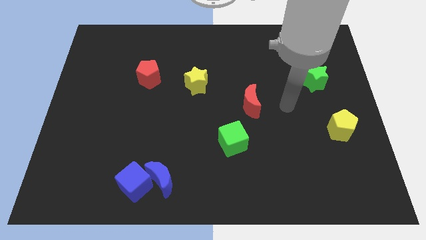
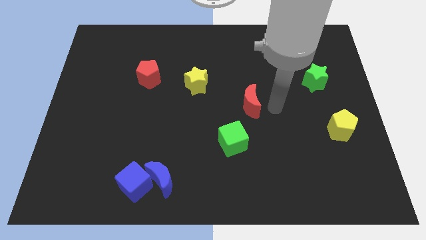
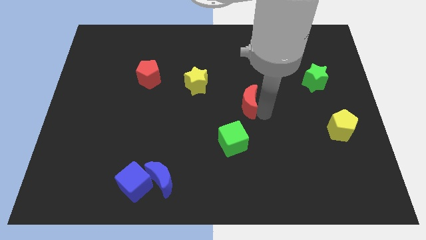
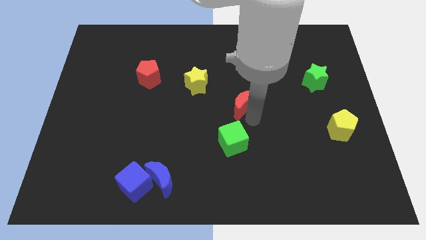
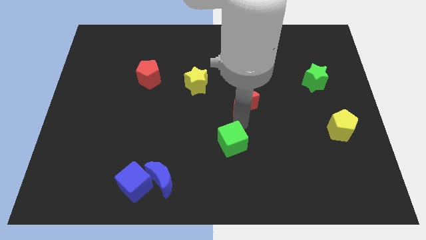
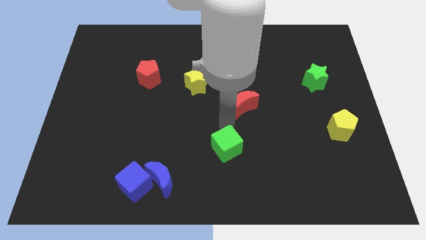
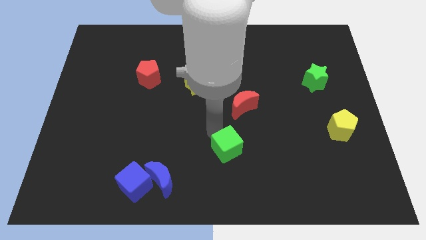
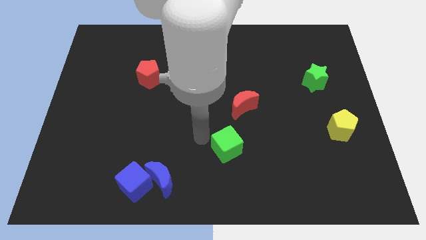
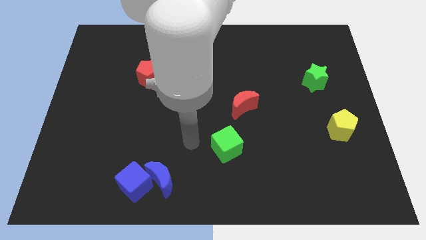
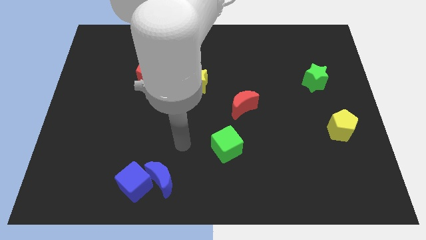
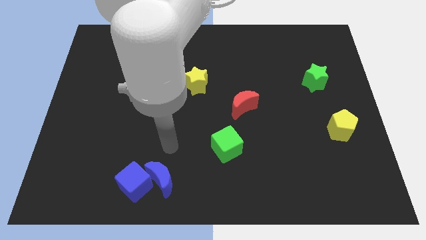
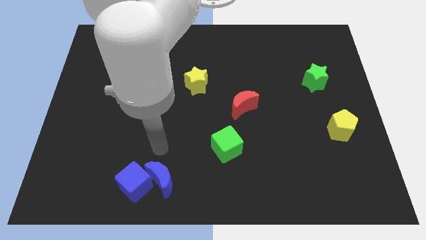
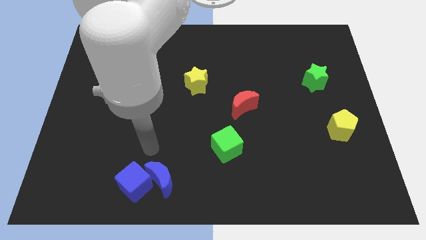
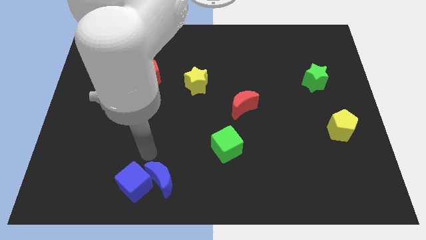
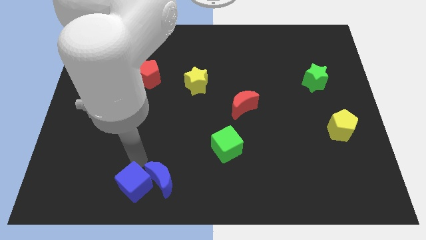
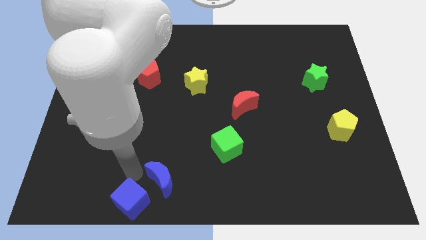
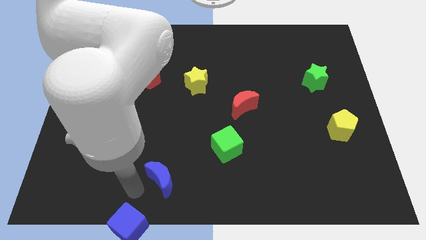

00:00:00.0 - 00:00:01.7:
move the blue moon away from the blue cube

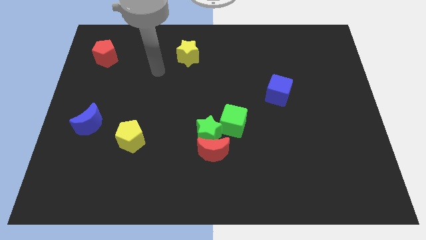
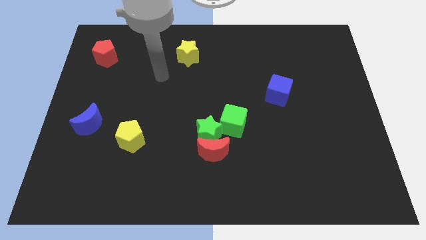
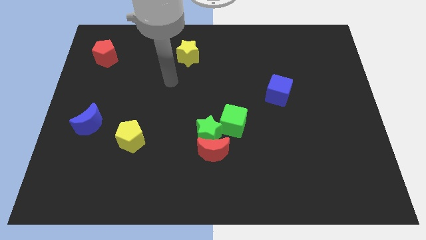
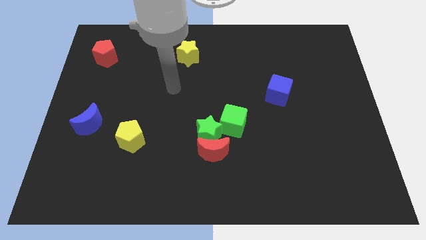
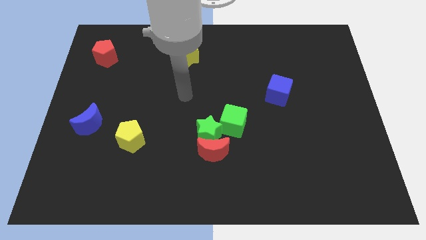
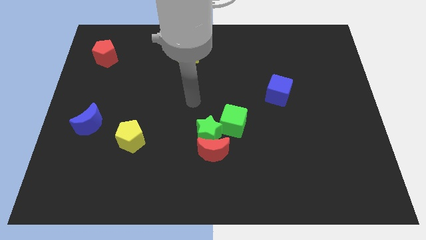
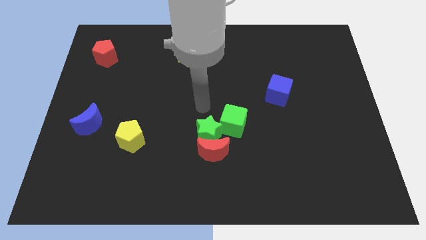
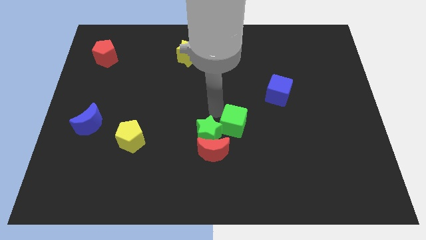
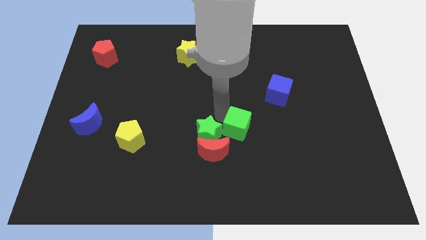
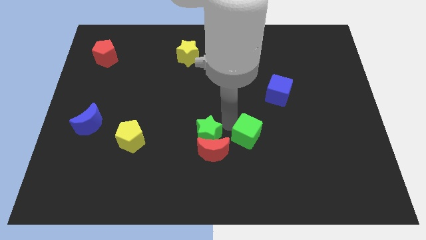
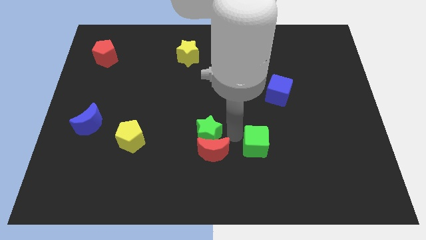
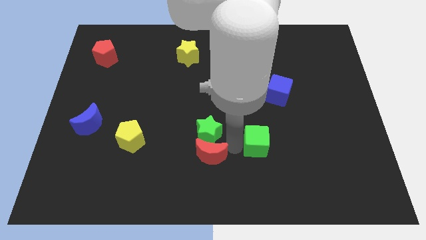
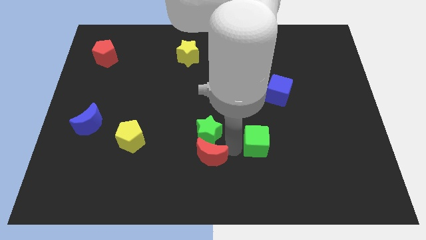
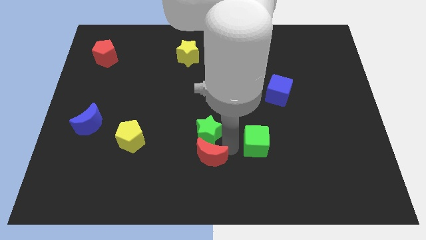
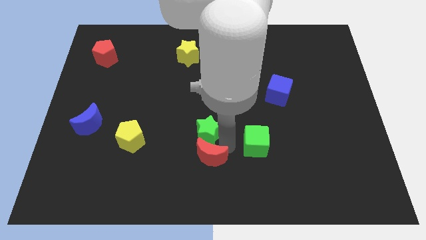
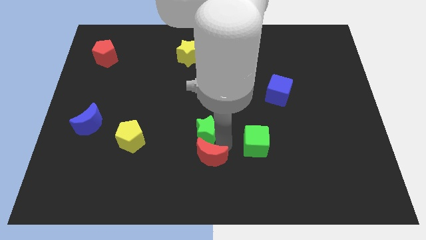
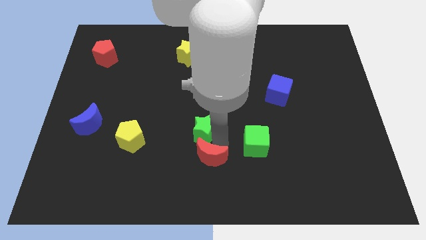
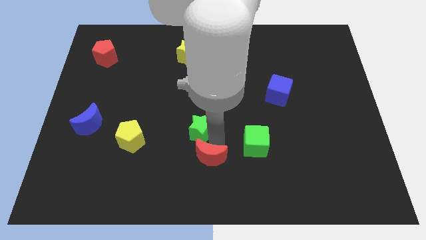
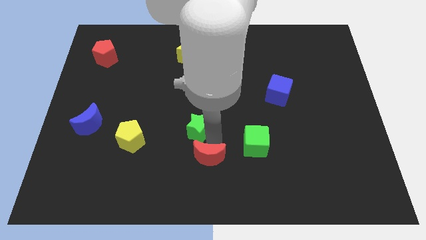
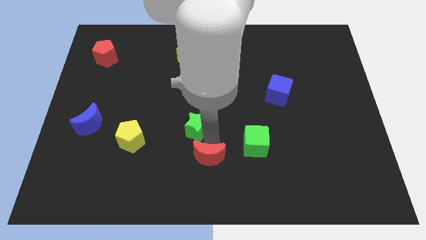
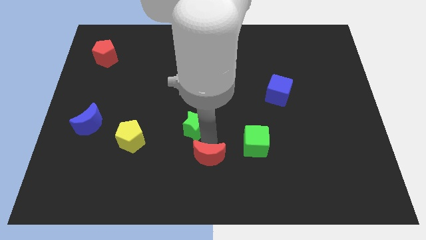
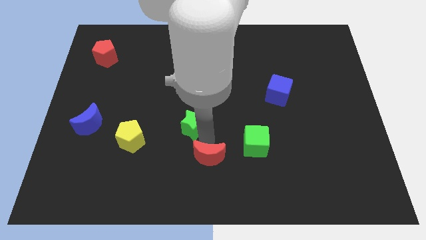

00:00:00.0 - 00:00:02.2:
separate the green star from the red moon and green cube

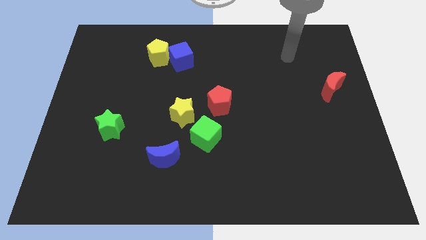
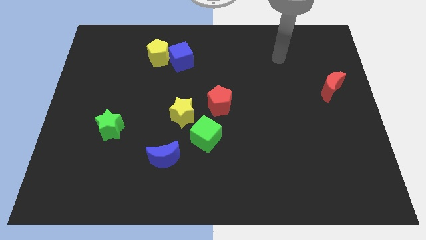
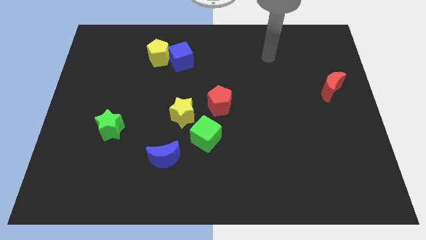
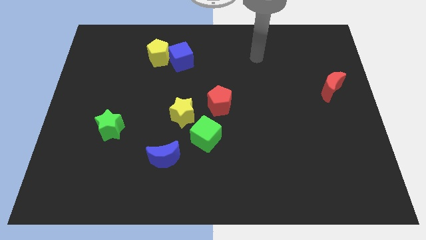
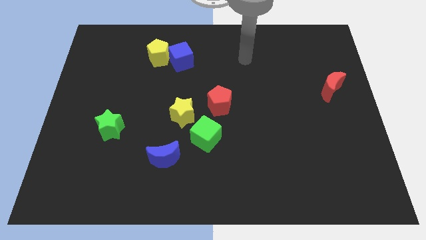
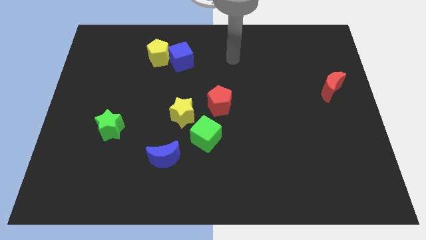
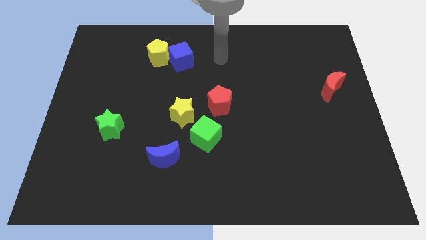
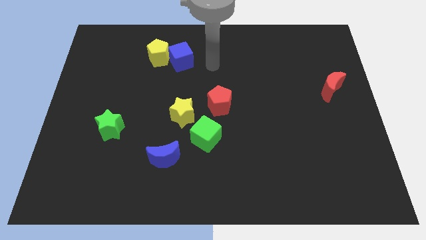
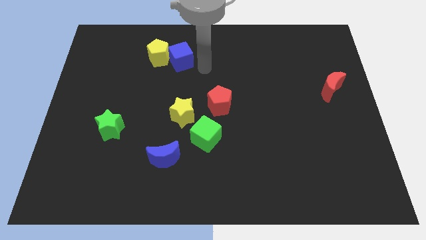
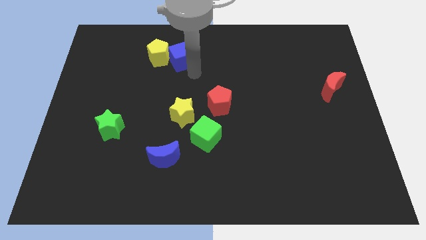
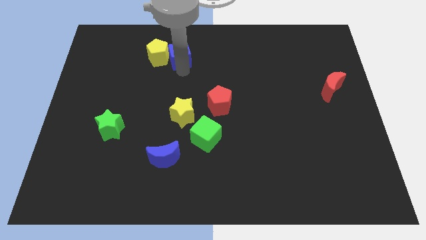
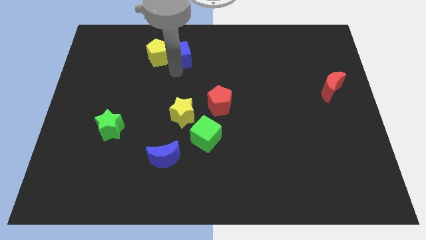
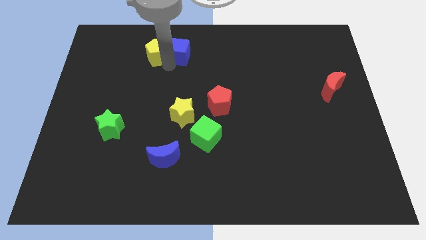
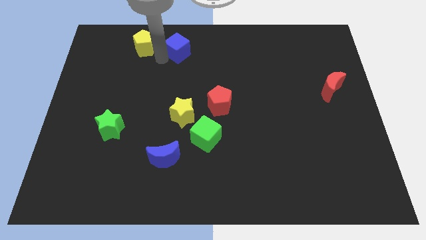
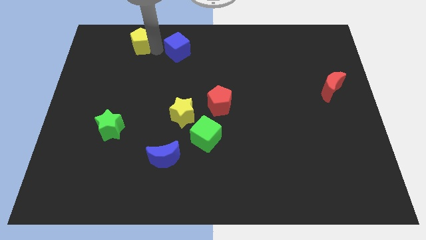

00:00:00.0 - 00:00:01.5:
separate the blue cube from the yellow pentagon

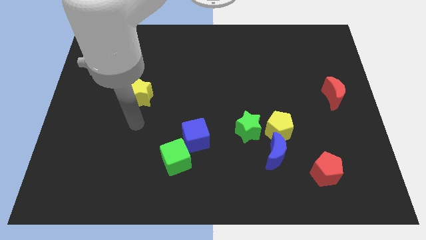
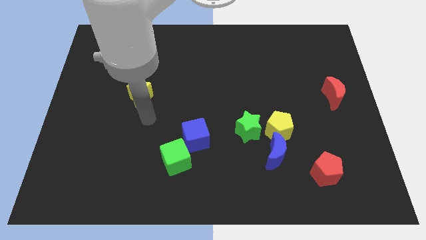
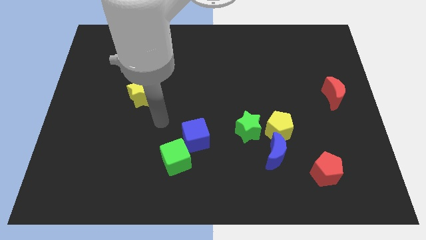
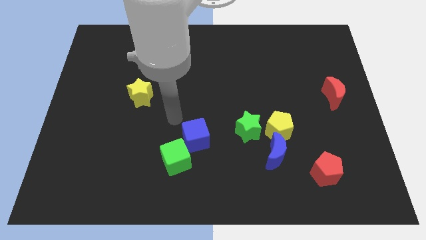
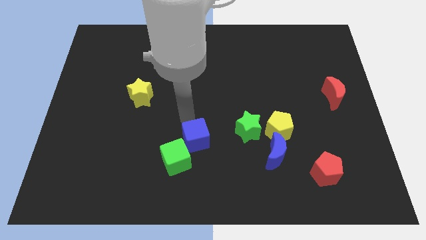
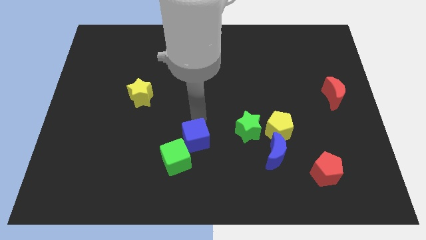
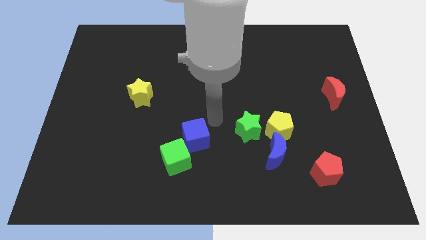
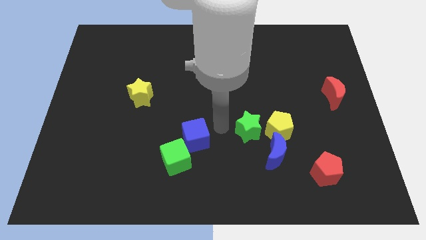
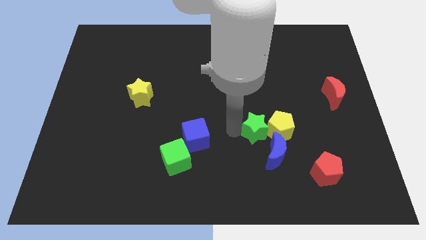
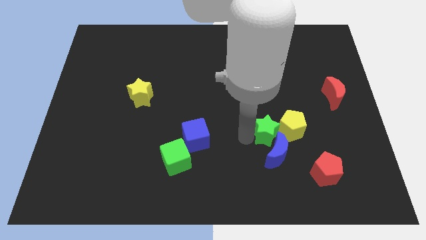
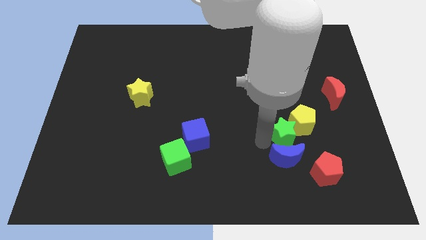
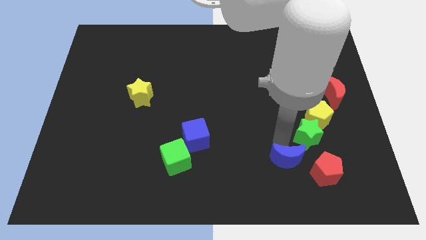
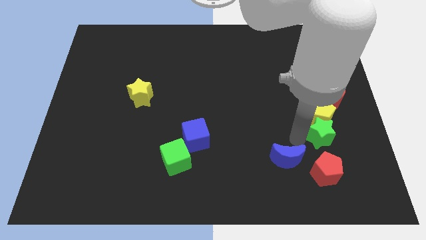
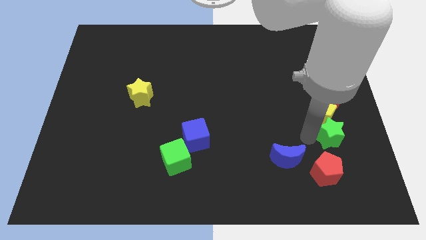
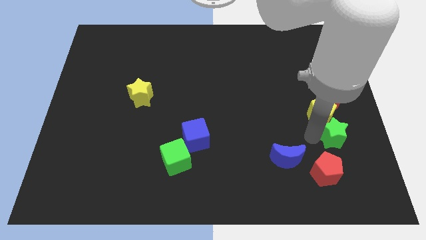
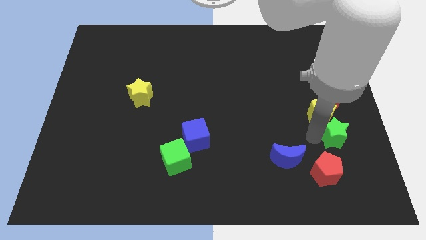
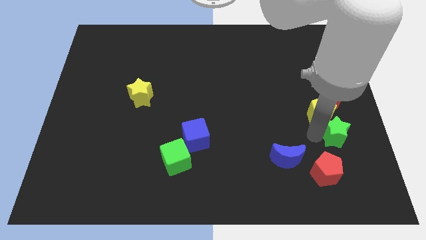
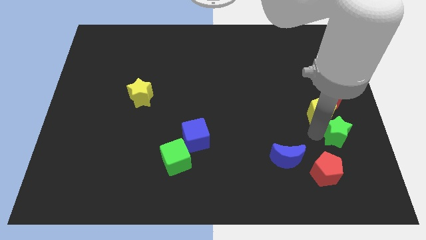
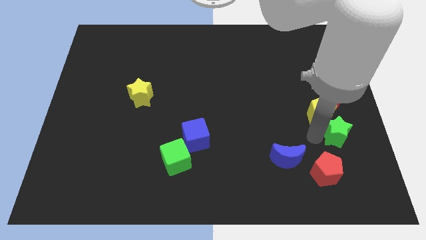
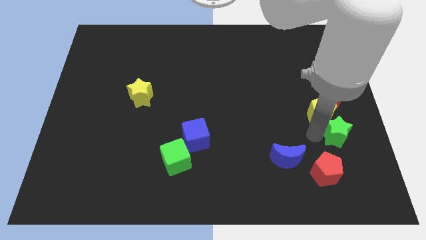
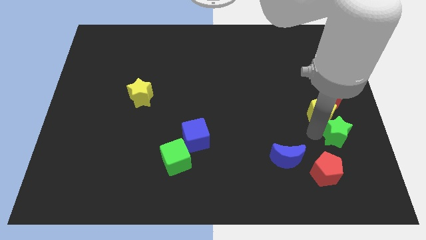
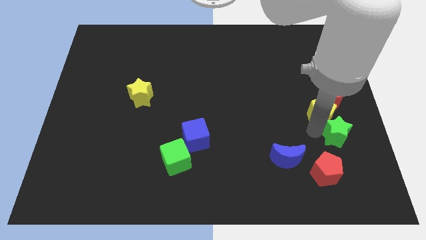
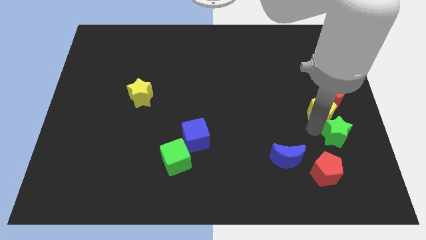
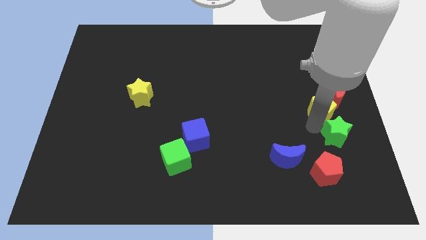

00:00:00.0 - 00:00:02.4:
pull the yellow pentagon apart from the green star and blue moon

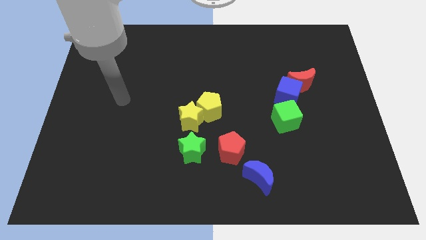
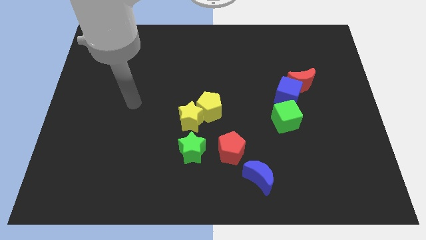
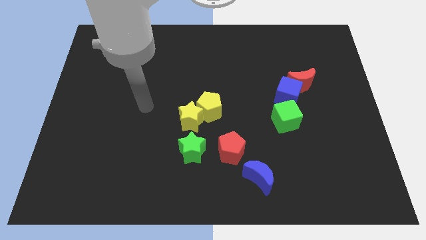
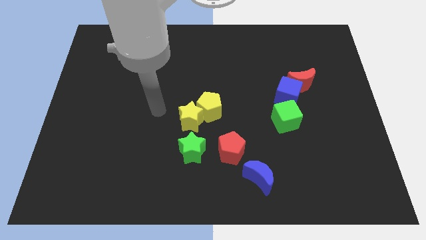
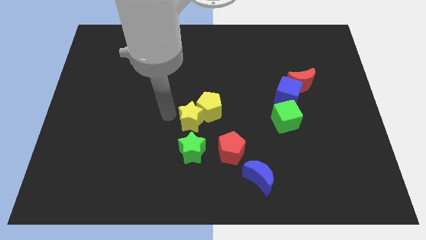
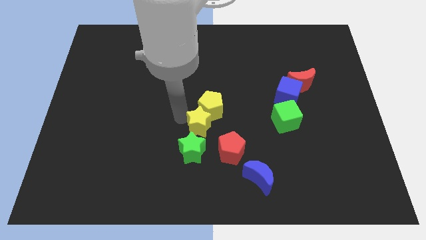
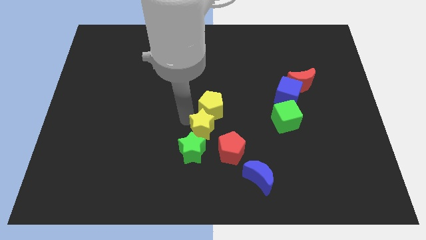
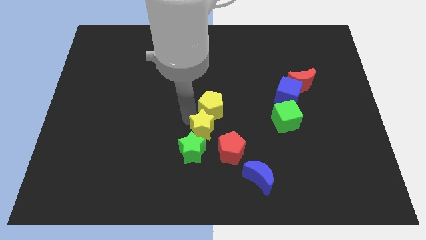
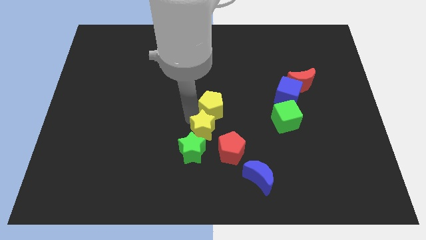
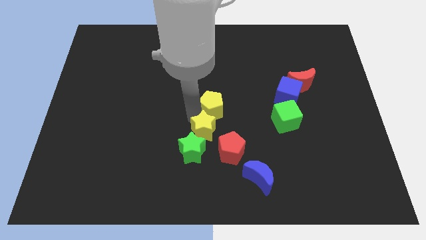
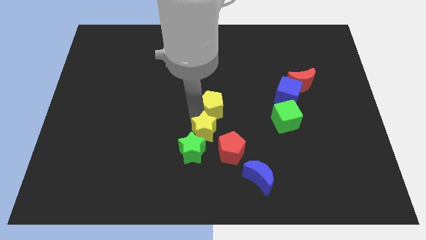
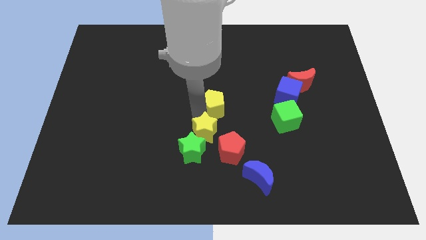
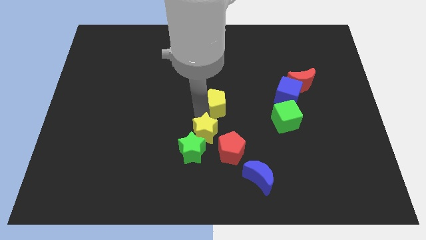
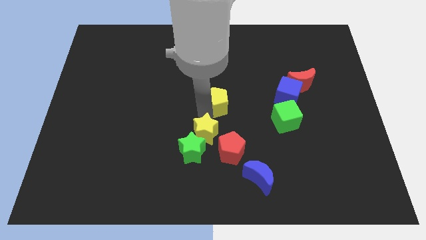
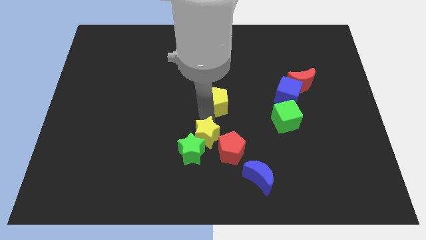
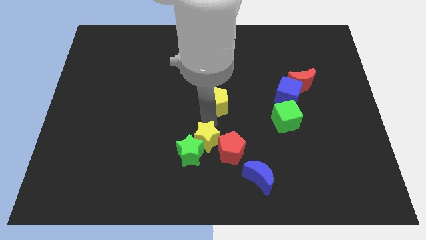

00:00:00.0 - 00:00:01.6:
move the yellow pentagon away from the yellow star
